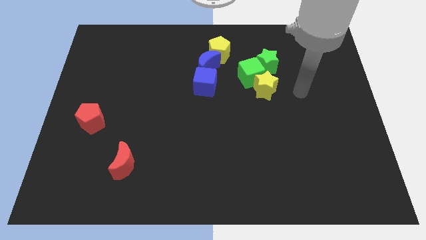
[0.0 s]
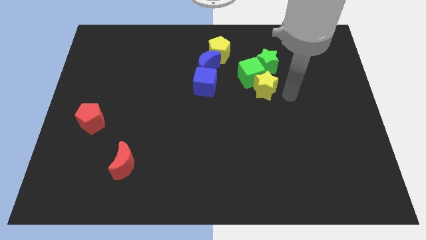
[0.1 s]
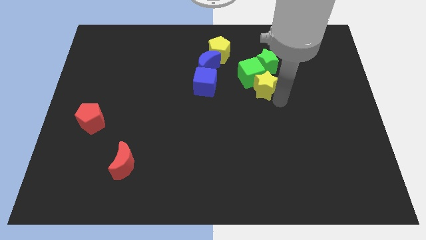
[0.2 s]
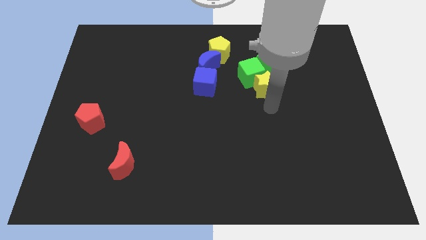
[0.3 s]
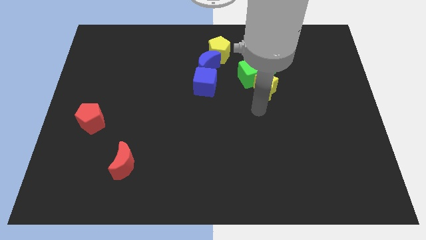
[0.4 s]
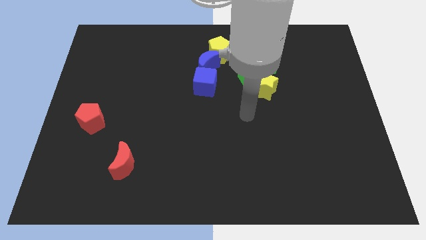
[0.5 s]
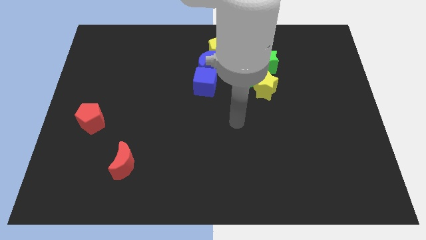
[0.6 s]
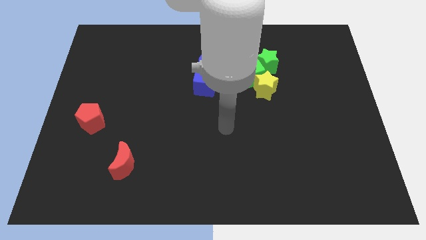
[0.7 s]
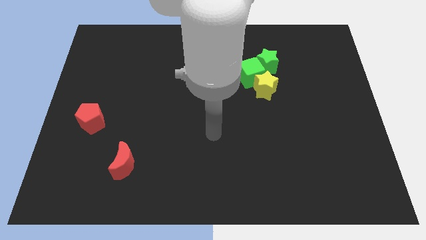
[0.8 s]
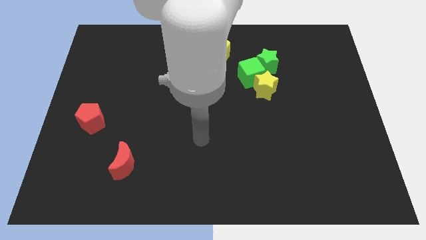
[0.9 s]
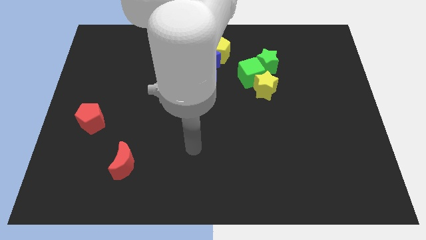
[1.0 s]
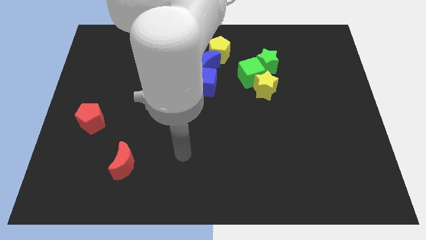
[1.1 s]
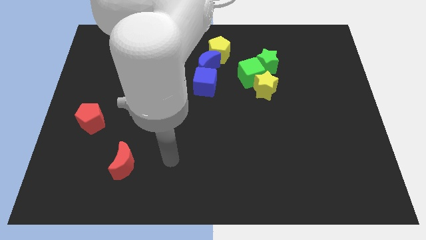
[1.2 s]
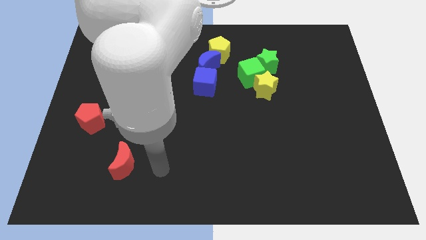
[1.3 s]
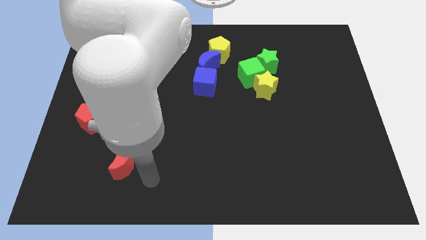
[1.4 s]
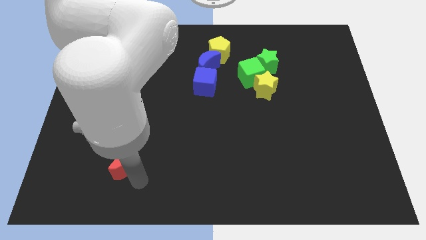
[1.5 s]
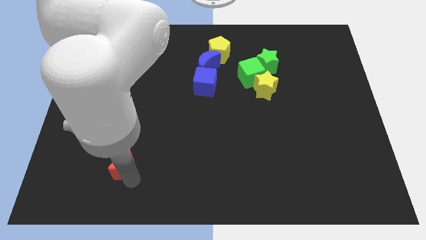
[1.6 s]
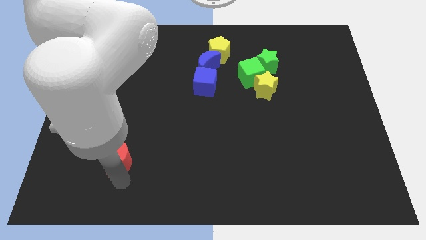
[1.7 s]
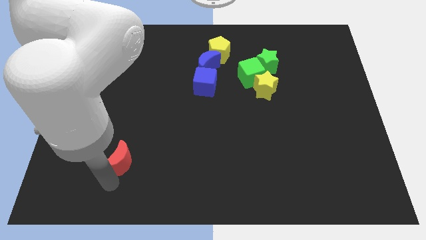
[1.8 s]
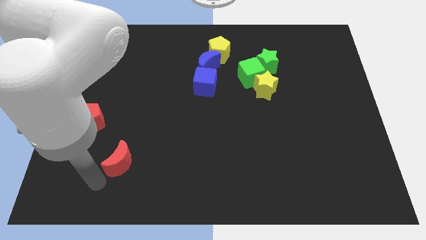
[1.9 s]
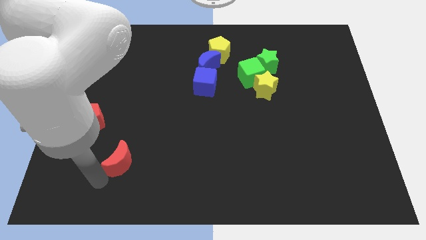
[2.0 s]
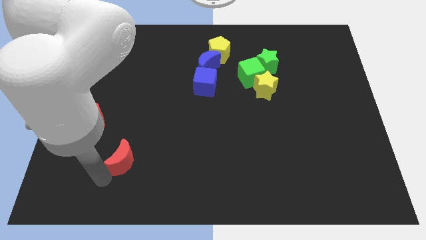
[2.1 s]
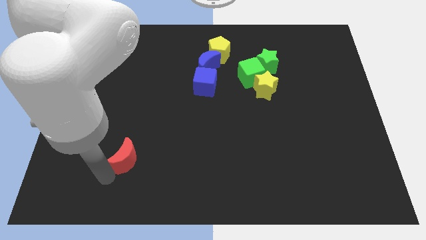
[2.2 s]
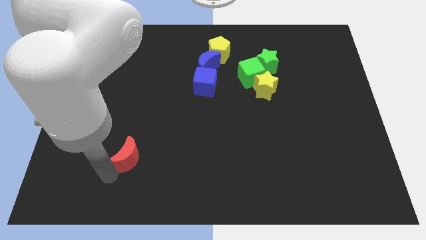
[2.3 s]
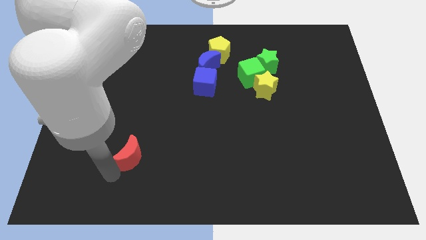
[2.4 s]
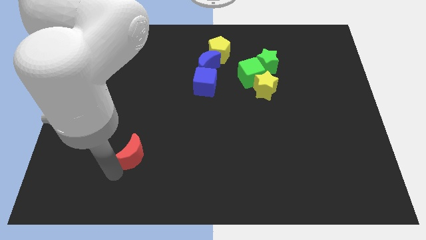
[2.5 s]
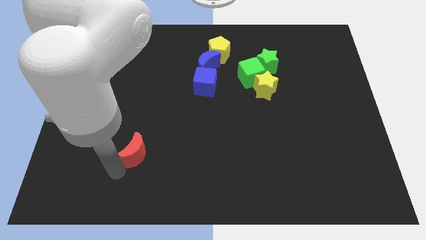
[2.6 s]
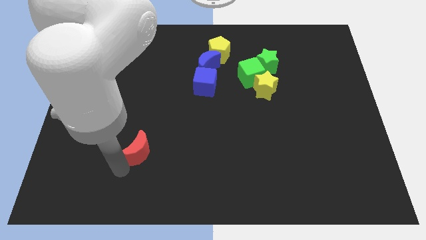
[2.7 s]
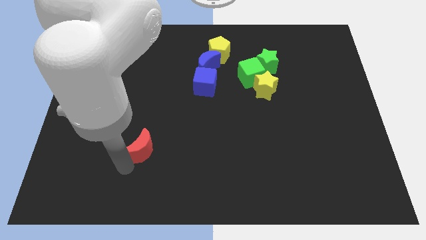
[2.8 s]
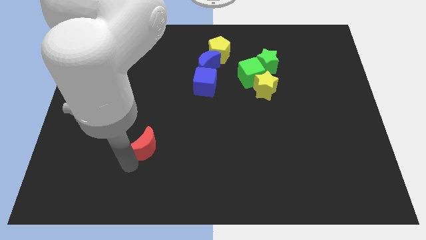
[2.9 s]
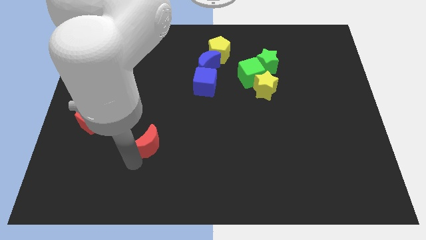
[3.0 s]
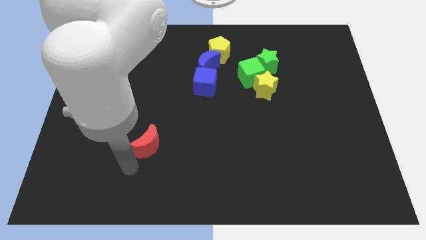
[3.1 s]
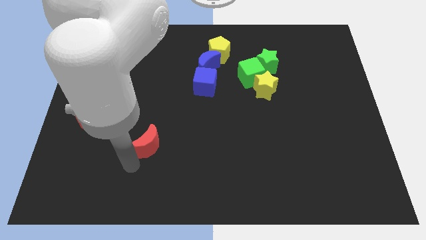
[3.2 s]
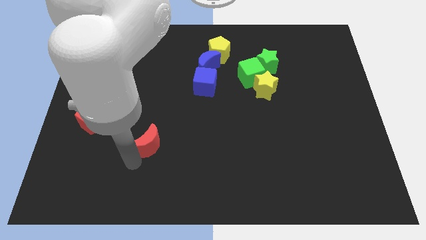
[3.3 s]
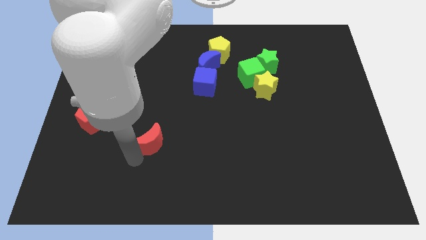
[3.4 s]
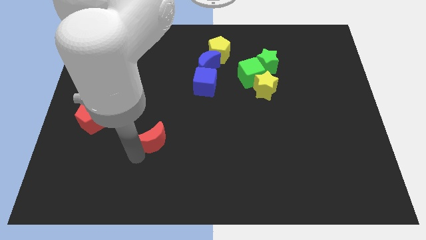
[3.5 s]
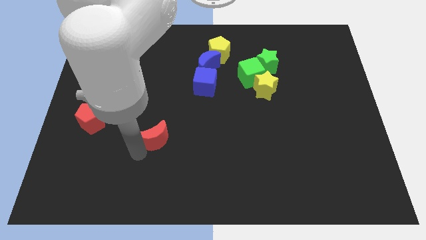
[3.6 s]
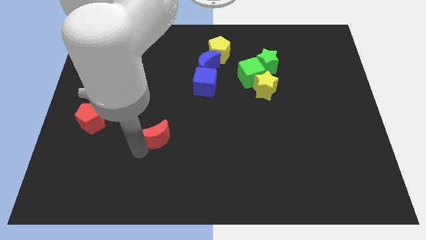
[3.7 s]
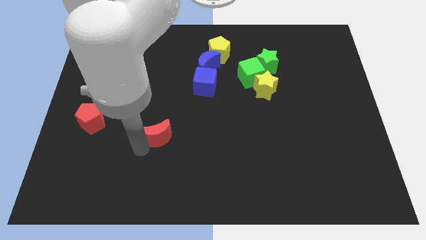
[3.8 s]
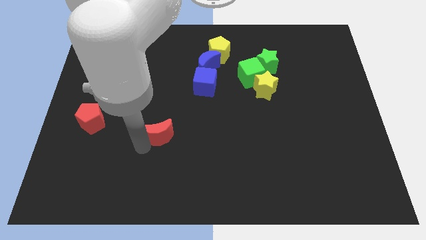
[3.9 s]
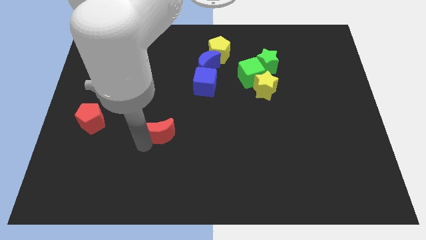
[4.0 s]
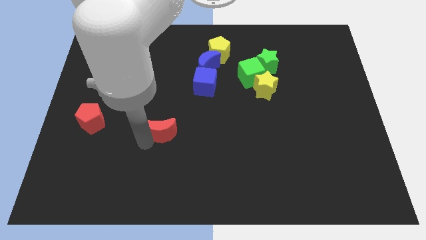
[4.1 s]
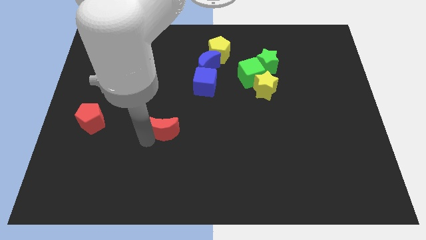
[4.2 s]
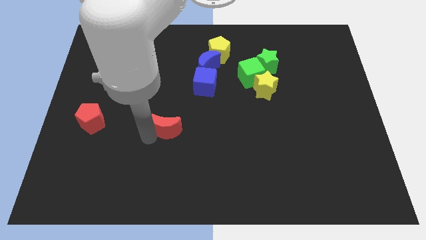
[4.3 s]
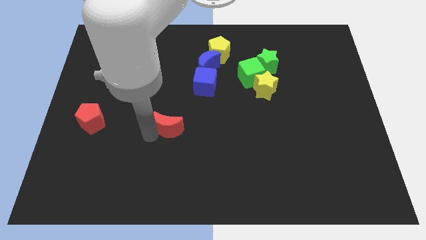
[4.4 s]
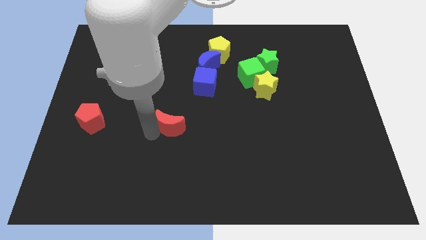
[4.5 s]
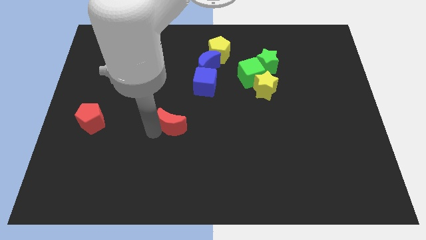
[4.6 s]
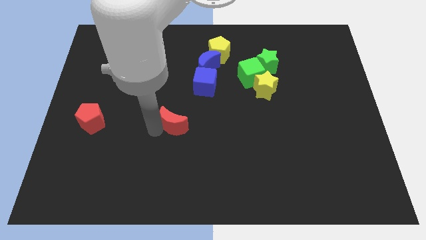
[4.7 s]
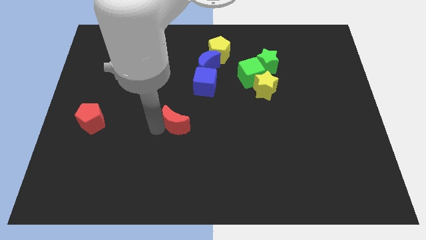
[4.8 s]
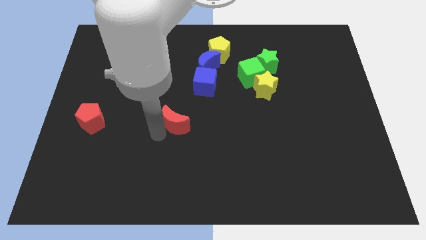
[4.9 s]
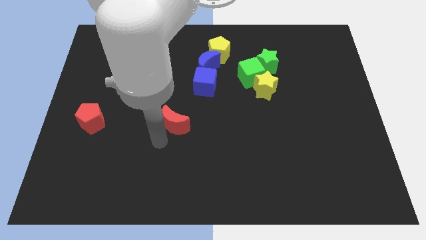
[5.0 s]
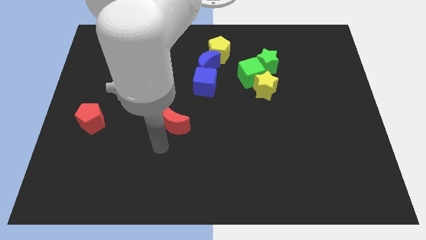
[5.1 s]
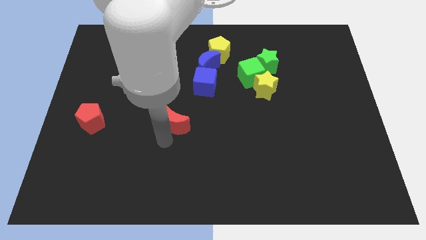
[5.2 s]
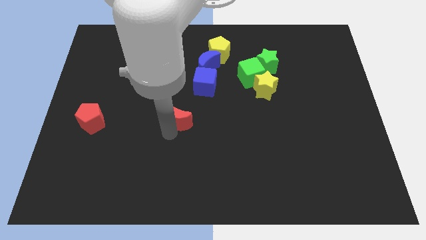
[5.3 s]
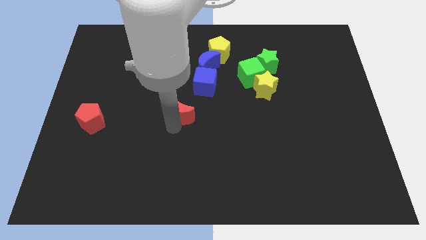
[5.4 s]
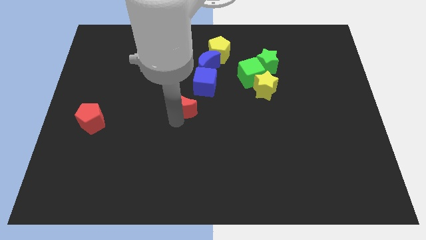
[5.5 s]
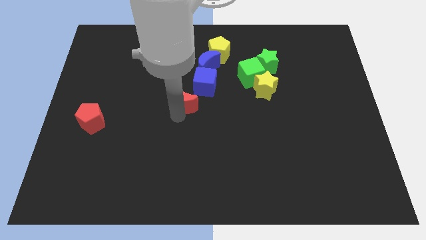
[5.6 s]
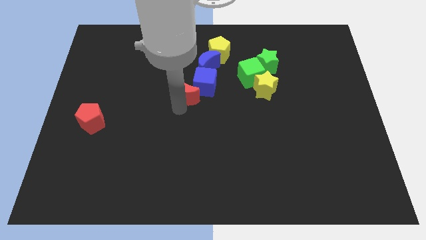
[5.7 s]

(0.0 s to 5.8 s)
move the red moon next to the blue cube

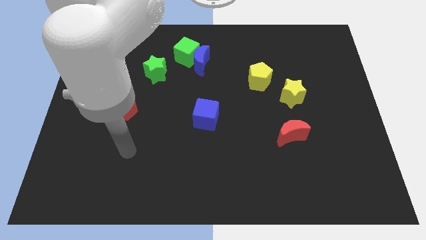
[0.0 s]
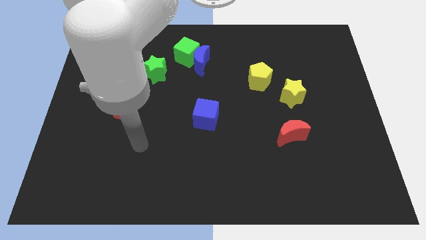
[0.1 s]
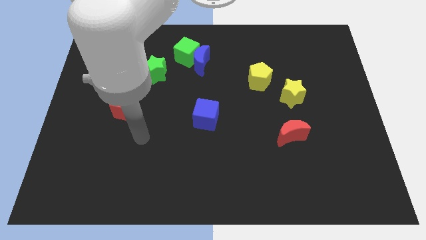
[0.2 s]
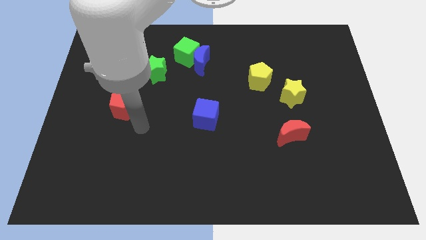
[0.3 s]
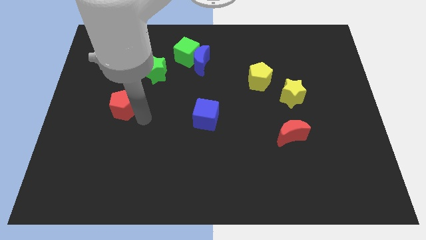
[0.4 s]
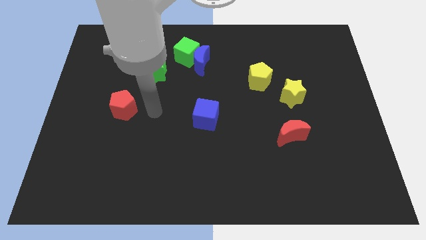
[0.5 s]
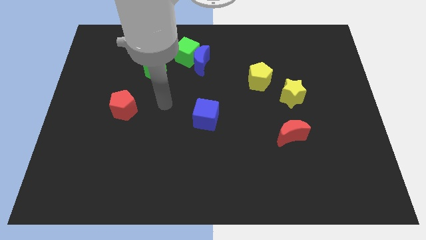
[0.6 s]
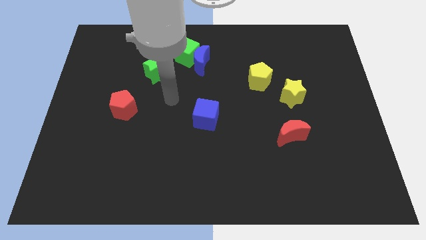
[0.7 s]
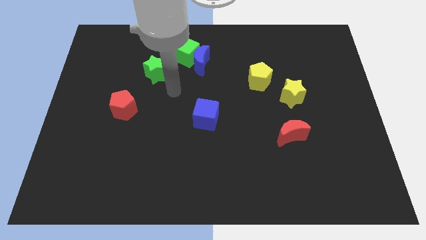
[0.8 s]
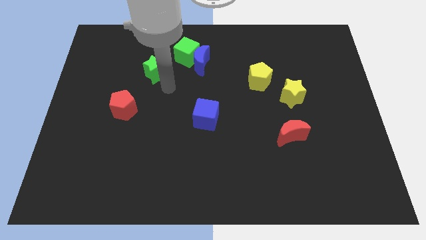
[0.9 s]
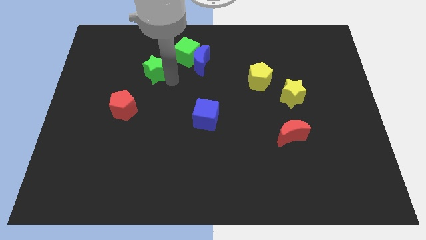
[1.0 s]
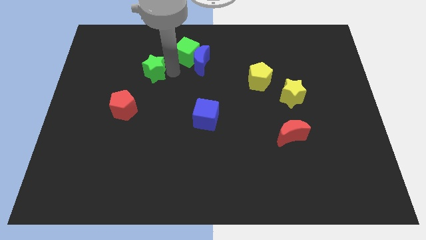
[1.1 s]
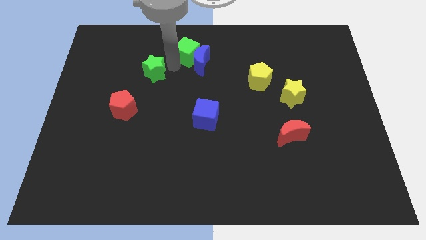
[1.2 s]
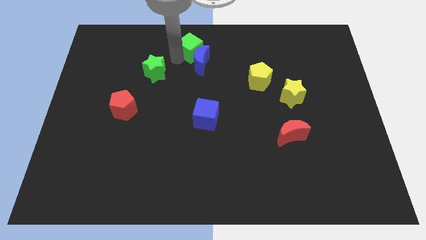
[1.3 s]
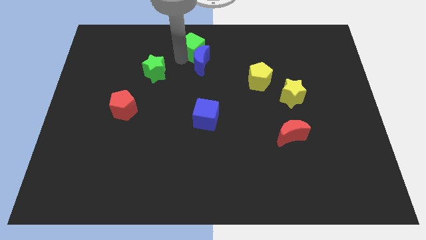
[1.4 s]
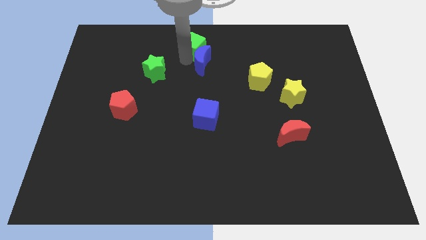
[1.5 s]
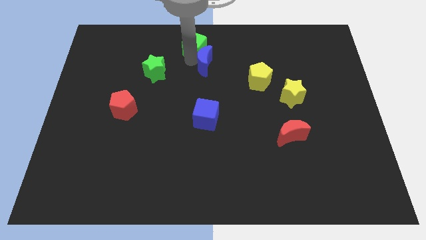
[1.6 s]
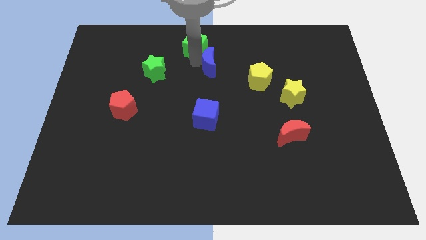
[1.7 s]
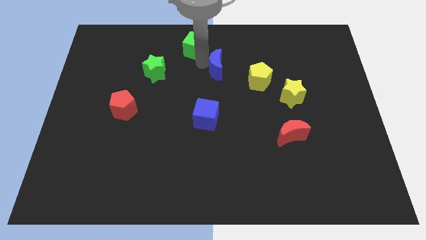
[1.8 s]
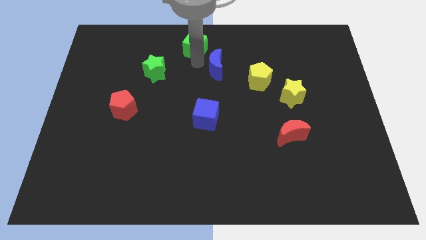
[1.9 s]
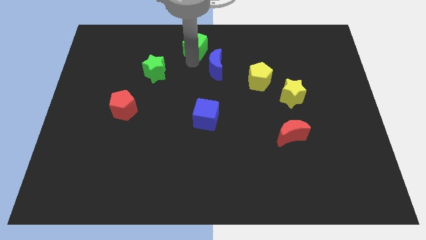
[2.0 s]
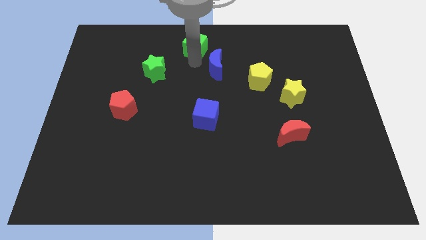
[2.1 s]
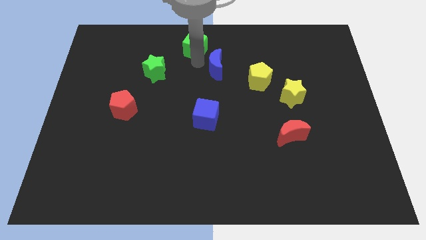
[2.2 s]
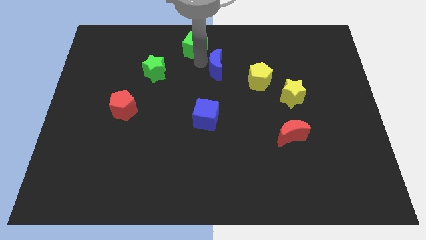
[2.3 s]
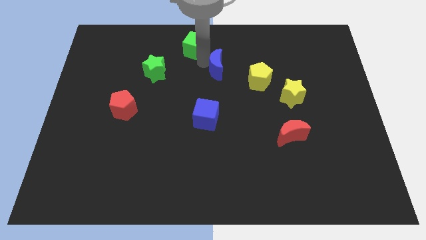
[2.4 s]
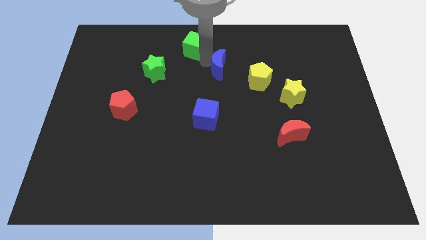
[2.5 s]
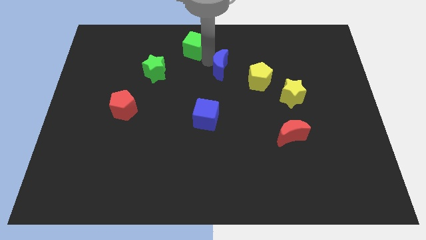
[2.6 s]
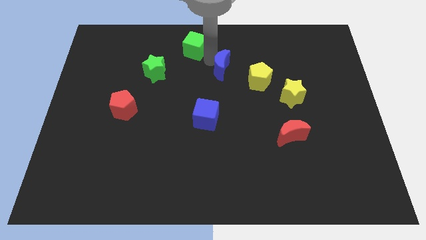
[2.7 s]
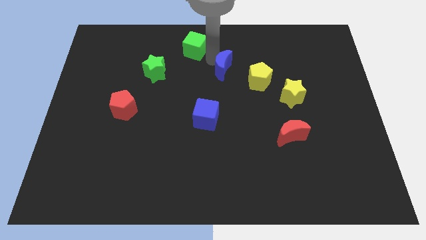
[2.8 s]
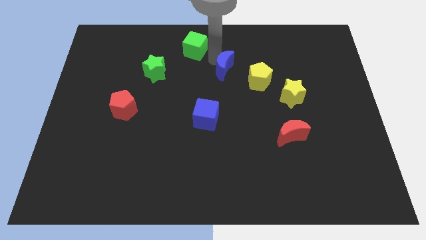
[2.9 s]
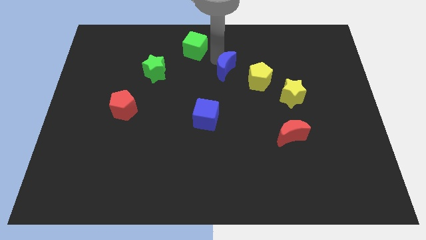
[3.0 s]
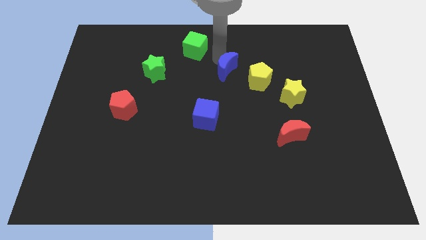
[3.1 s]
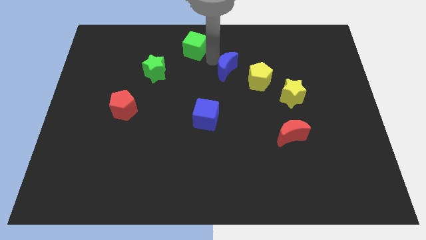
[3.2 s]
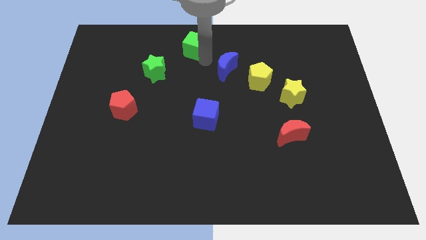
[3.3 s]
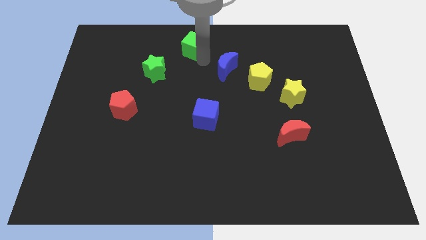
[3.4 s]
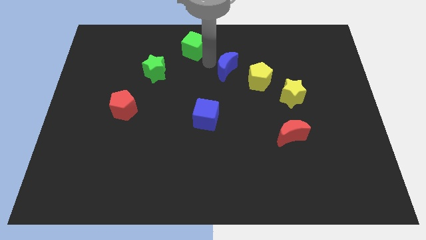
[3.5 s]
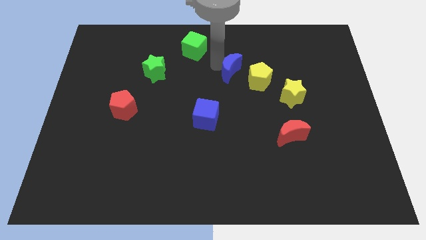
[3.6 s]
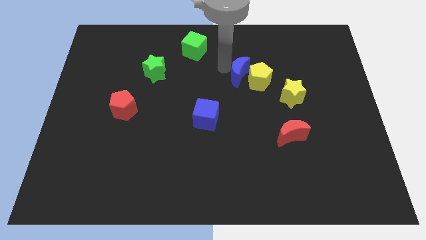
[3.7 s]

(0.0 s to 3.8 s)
slide the blue moon to the yellow pentagon
